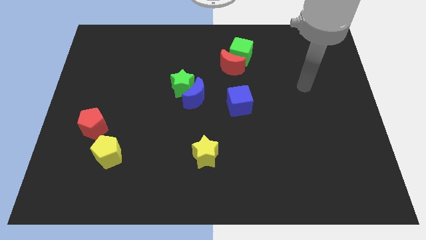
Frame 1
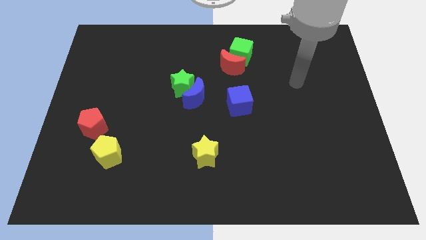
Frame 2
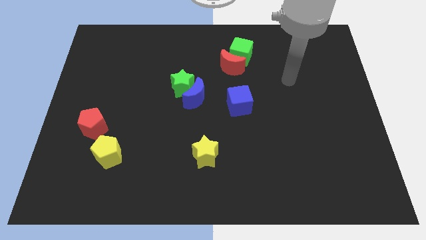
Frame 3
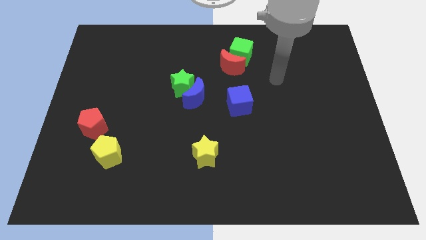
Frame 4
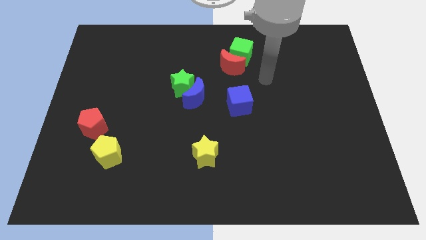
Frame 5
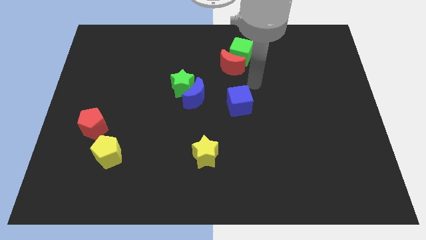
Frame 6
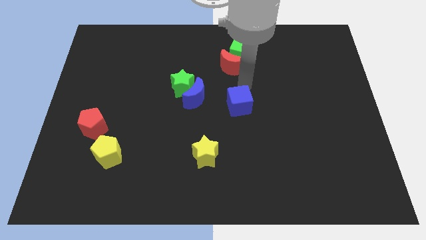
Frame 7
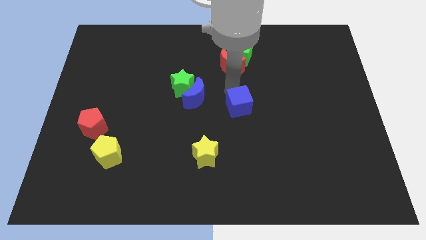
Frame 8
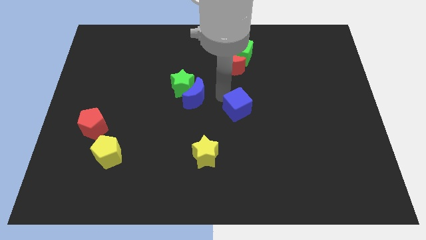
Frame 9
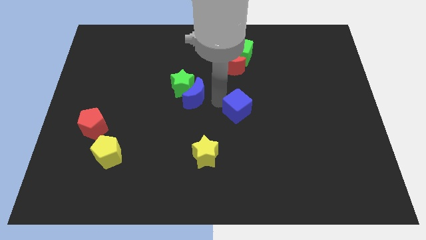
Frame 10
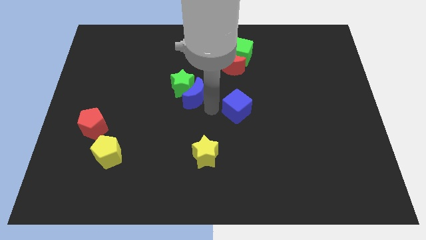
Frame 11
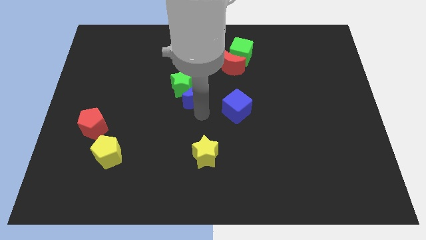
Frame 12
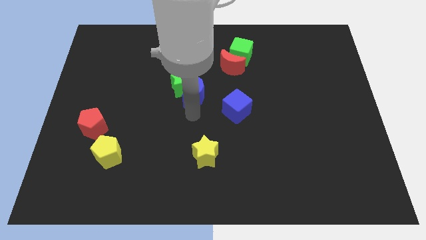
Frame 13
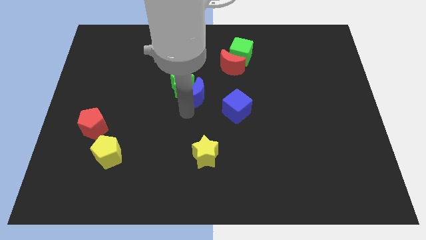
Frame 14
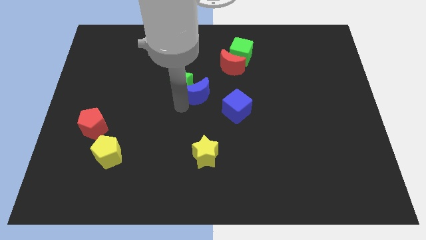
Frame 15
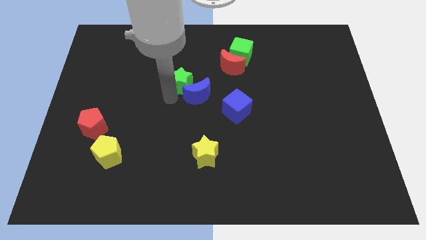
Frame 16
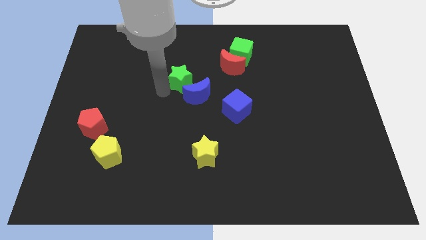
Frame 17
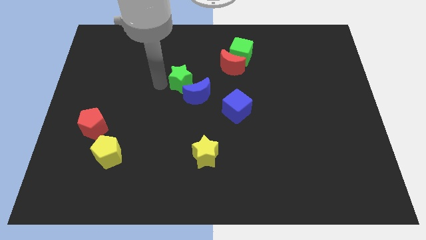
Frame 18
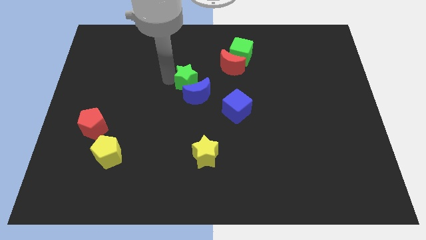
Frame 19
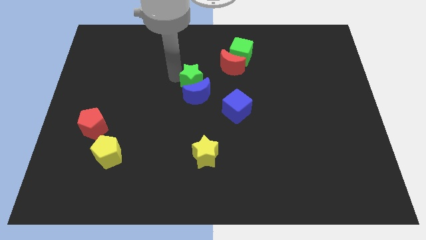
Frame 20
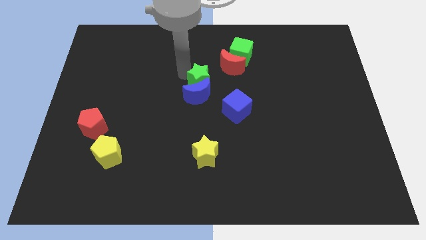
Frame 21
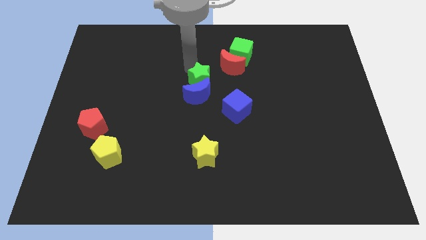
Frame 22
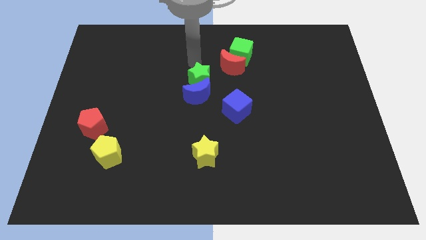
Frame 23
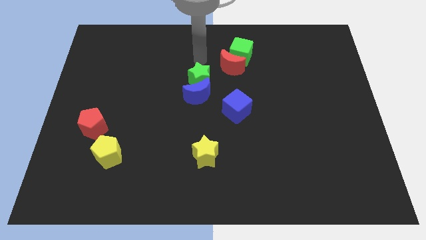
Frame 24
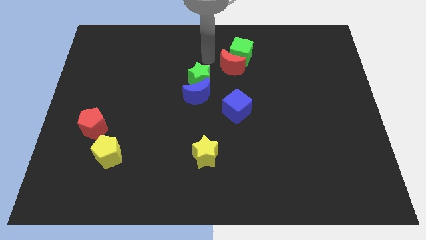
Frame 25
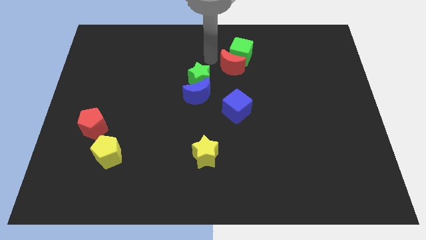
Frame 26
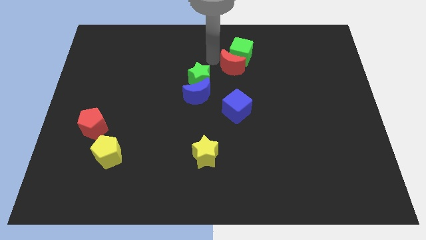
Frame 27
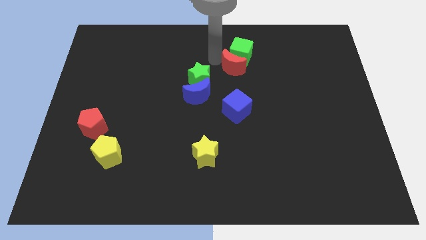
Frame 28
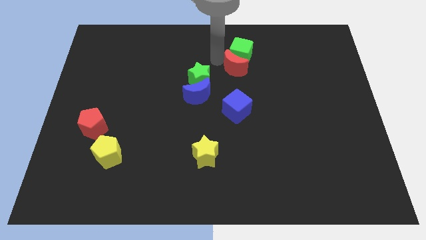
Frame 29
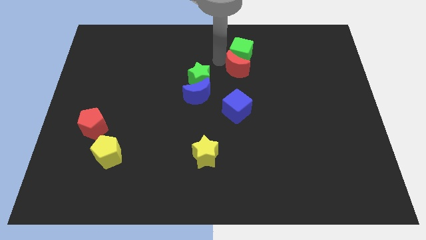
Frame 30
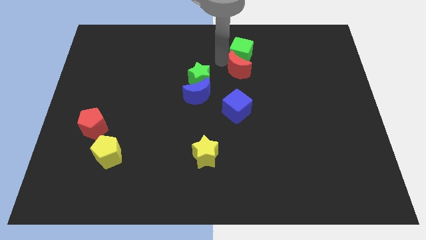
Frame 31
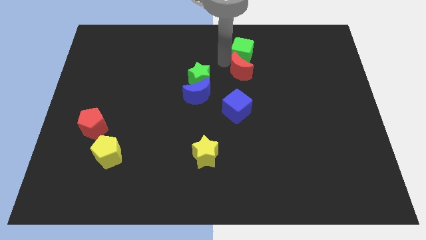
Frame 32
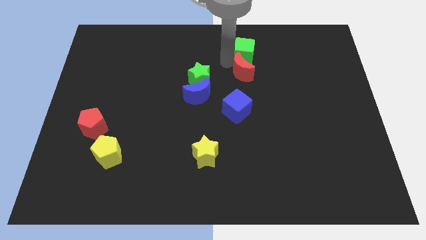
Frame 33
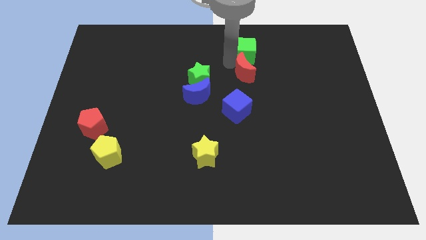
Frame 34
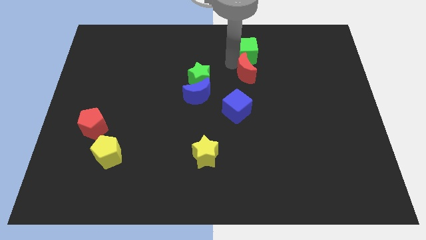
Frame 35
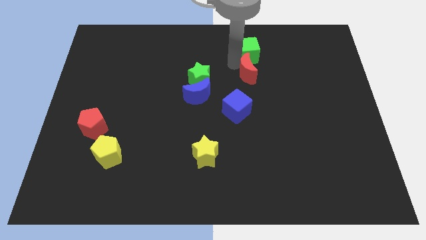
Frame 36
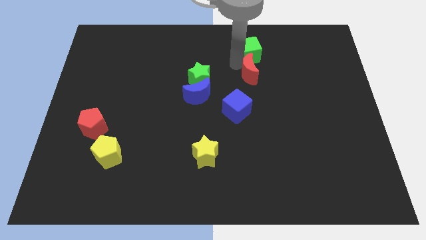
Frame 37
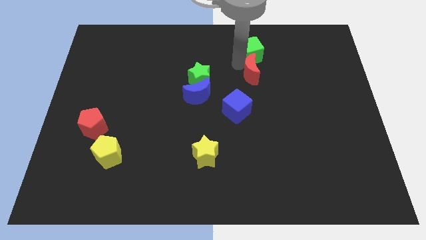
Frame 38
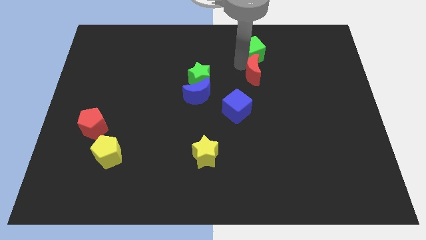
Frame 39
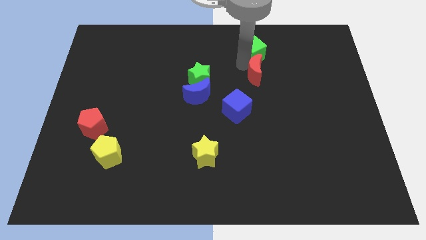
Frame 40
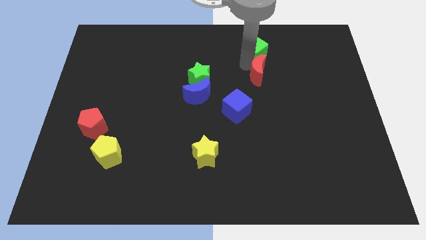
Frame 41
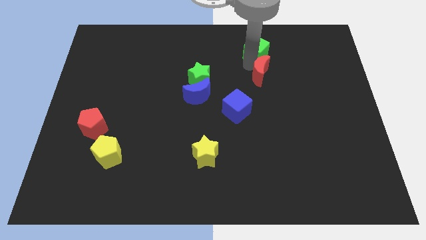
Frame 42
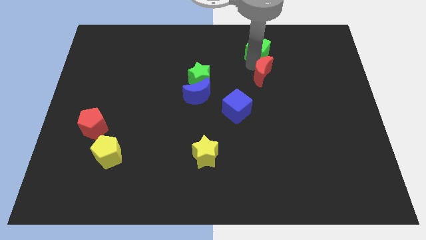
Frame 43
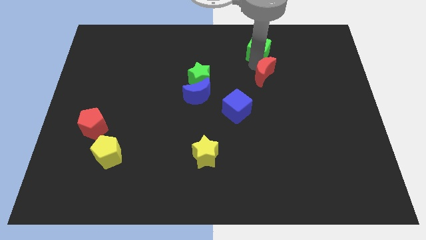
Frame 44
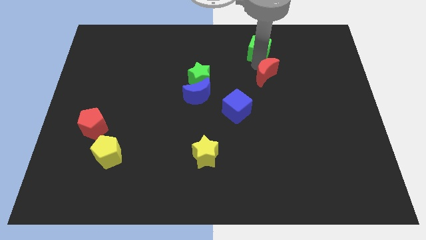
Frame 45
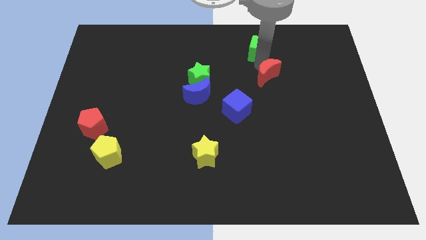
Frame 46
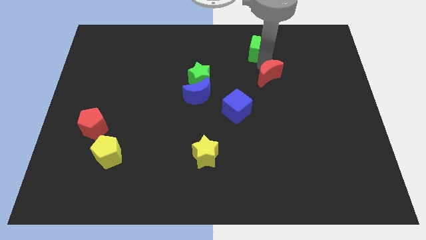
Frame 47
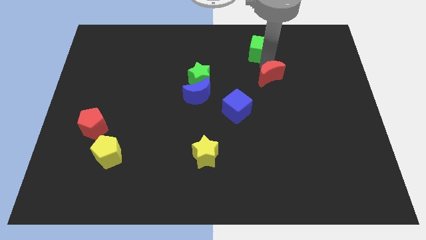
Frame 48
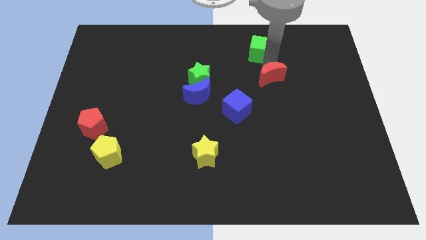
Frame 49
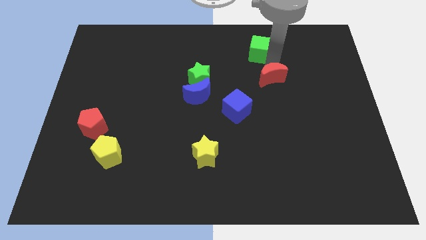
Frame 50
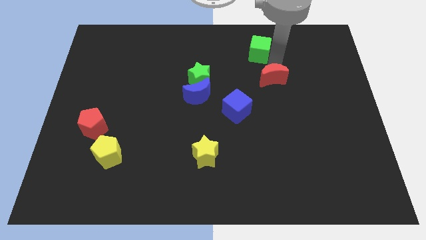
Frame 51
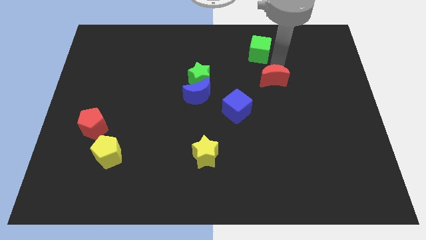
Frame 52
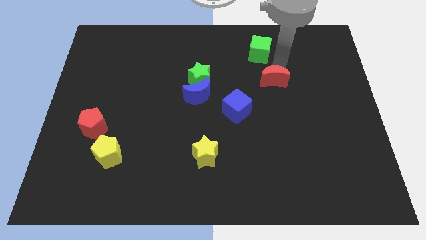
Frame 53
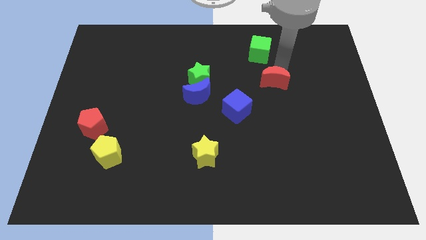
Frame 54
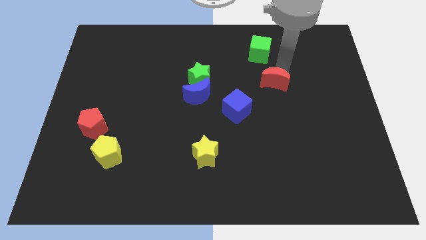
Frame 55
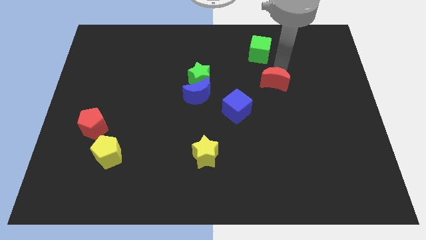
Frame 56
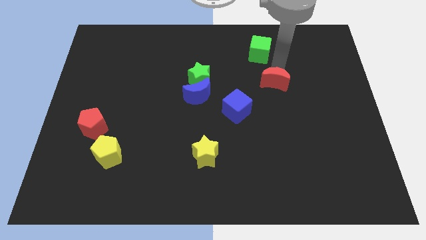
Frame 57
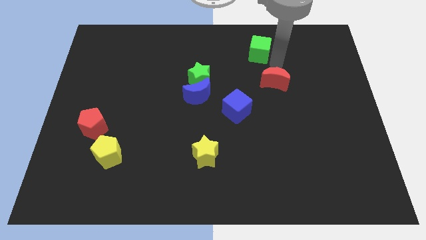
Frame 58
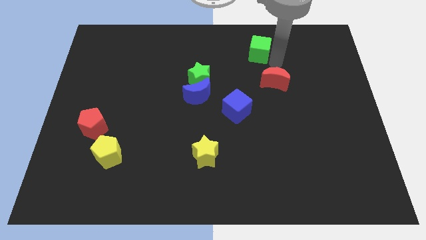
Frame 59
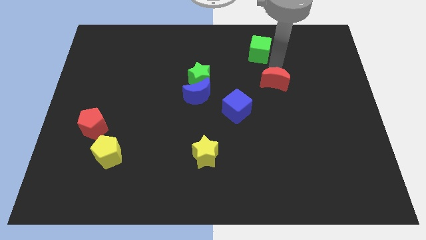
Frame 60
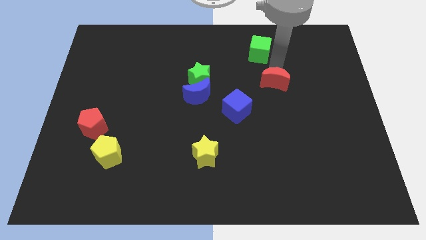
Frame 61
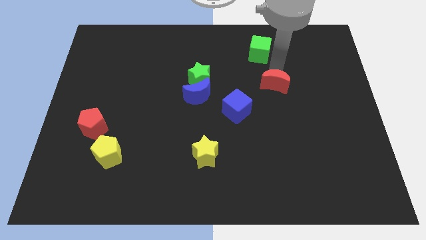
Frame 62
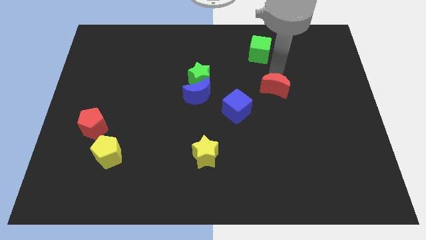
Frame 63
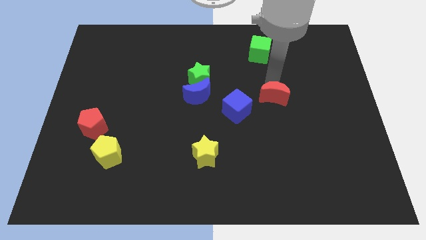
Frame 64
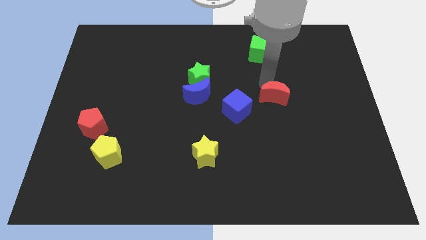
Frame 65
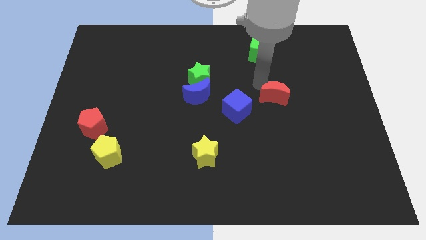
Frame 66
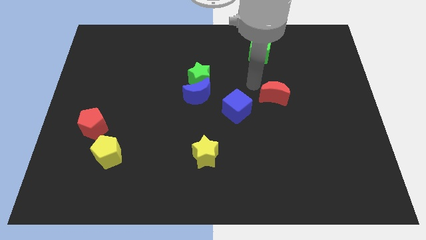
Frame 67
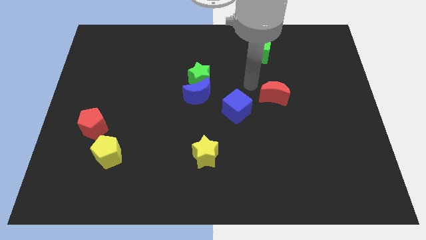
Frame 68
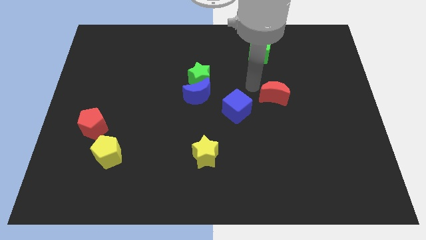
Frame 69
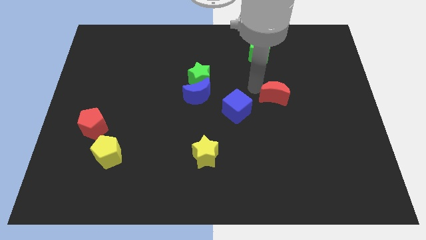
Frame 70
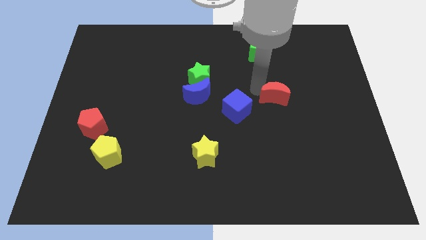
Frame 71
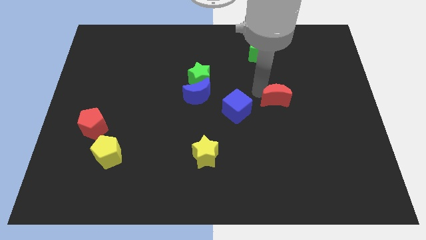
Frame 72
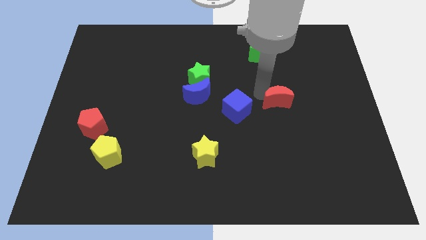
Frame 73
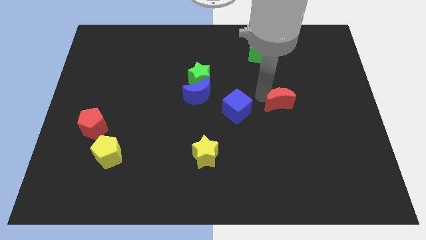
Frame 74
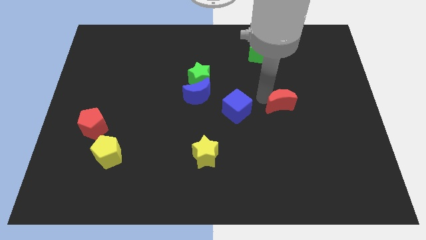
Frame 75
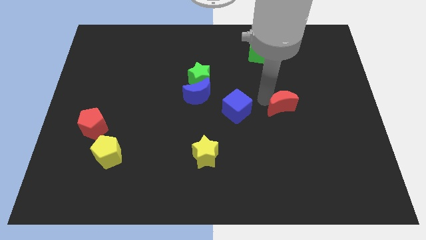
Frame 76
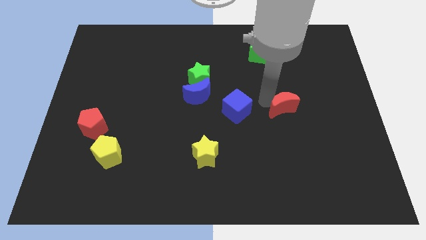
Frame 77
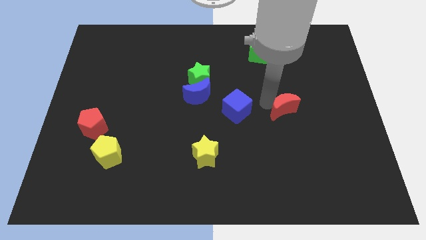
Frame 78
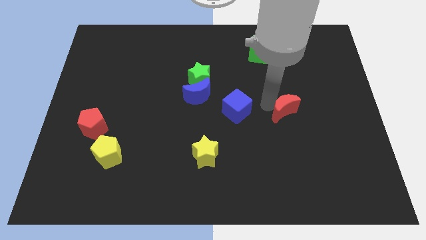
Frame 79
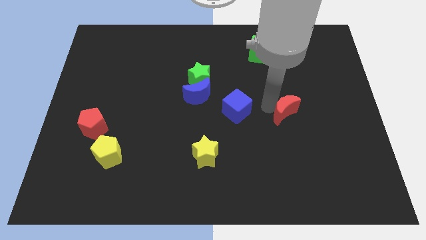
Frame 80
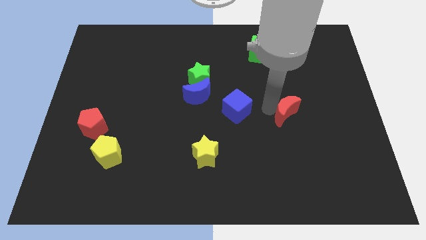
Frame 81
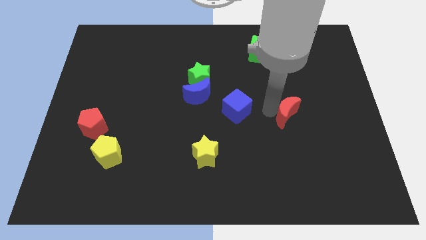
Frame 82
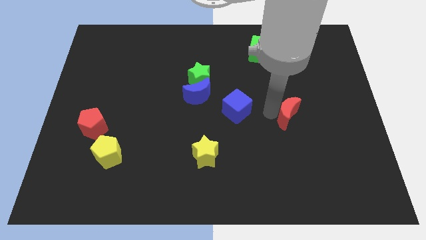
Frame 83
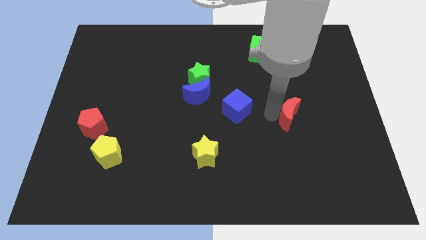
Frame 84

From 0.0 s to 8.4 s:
slide the red moon downwards and to the right diagonally
